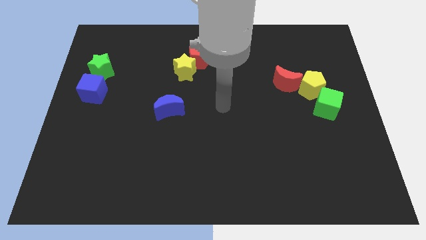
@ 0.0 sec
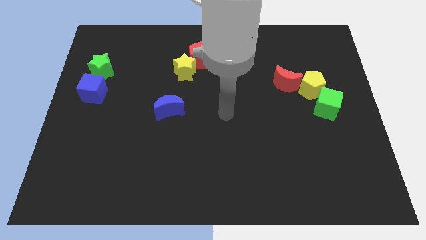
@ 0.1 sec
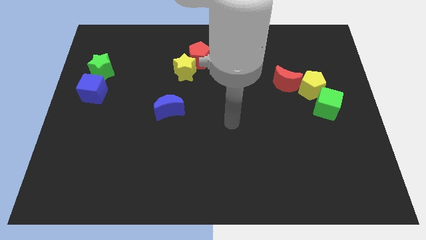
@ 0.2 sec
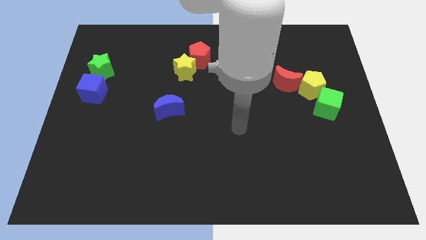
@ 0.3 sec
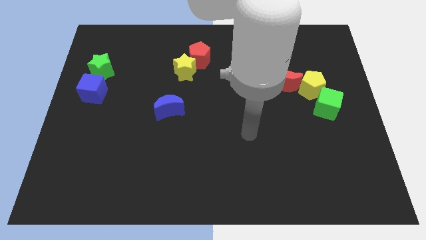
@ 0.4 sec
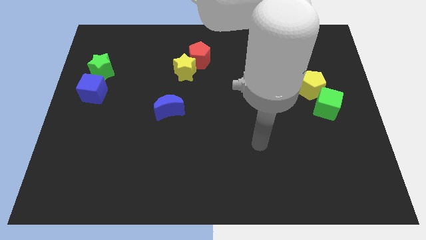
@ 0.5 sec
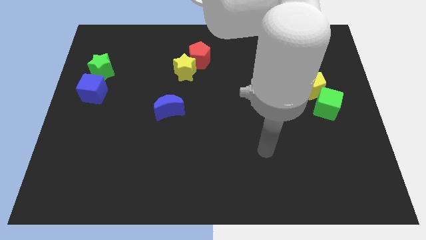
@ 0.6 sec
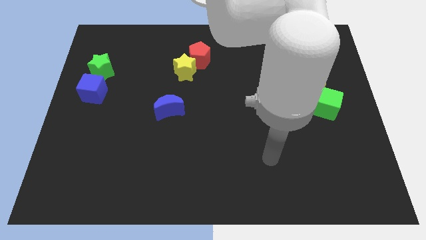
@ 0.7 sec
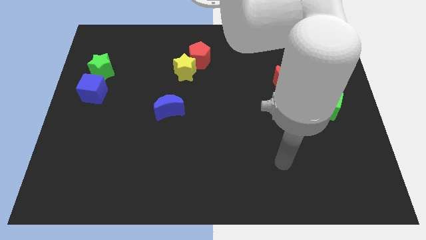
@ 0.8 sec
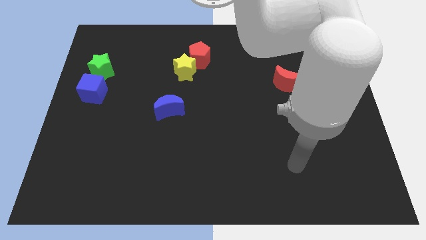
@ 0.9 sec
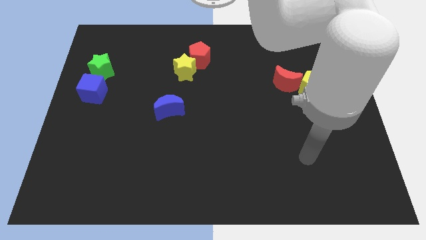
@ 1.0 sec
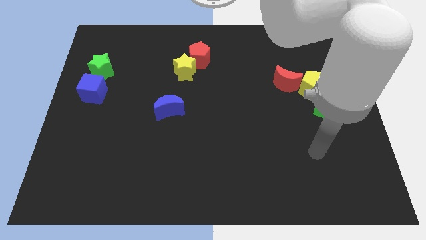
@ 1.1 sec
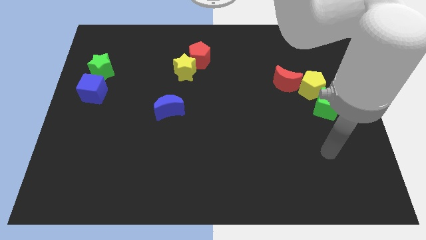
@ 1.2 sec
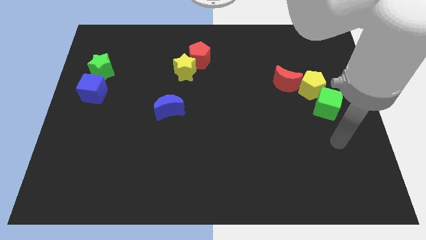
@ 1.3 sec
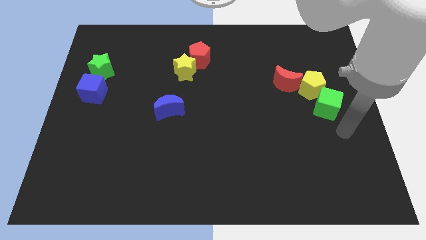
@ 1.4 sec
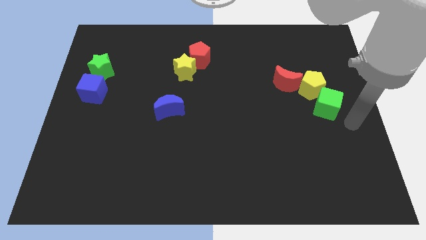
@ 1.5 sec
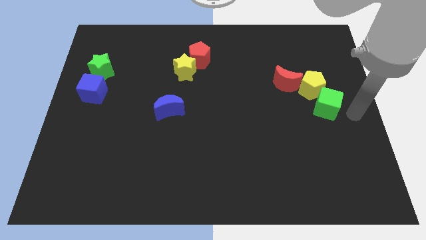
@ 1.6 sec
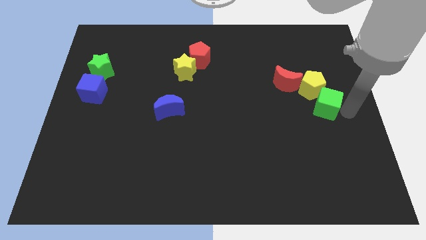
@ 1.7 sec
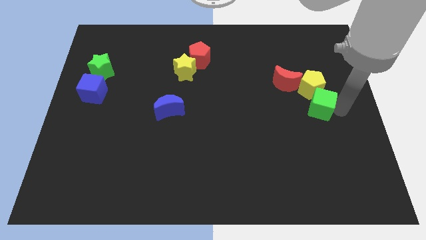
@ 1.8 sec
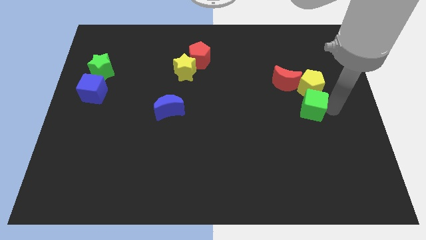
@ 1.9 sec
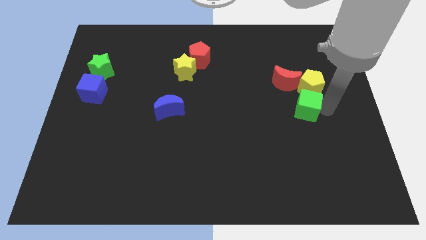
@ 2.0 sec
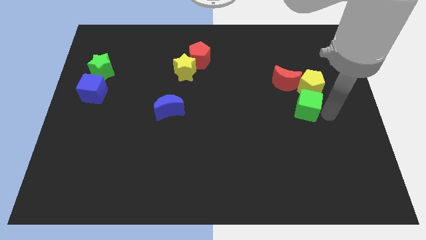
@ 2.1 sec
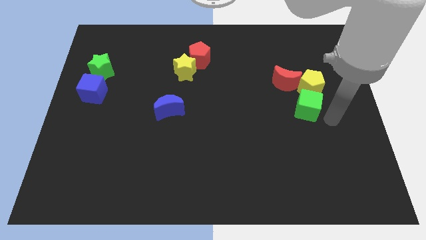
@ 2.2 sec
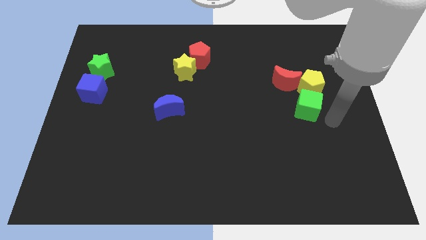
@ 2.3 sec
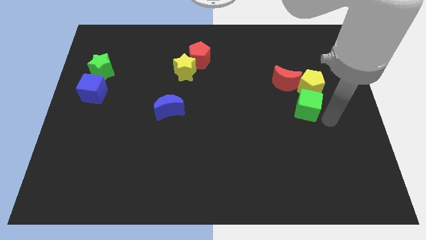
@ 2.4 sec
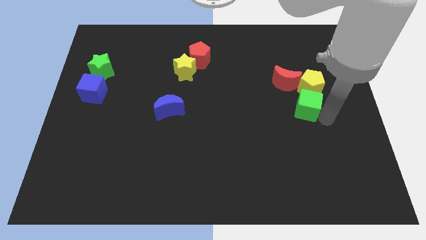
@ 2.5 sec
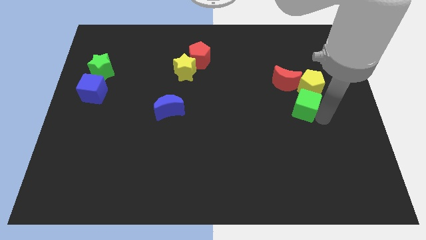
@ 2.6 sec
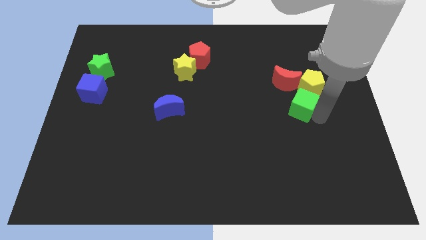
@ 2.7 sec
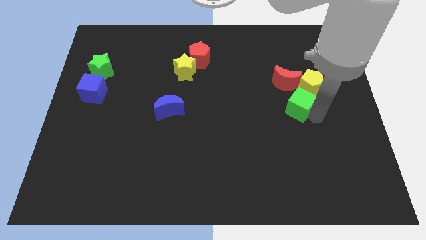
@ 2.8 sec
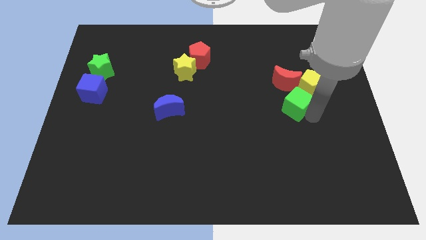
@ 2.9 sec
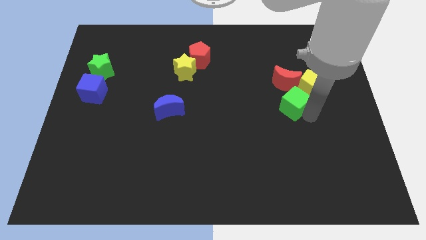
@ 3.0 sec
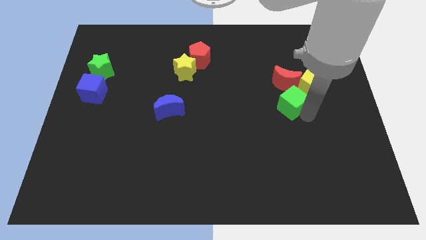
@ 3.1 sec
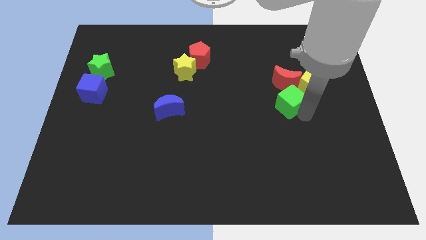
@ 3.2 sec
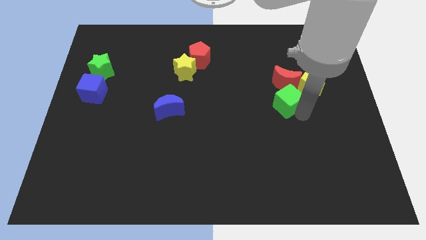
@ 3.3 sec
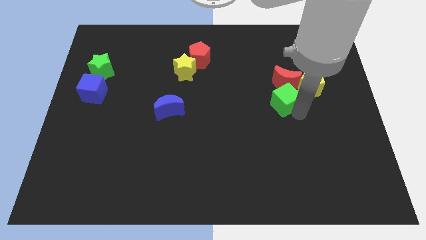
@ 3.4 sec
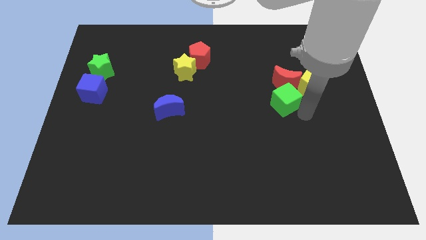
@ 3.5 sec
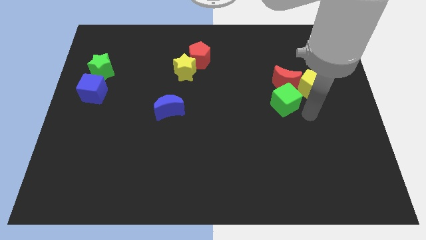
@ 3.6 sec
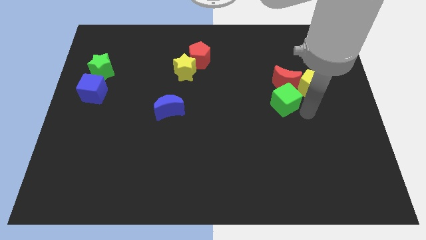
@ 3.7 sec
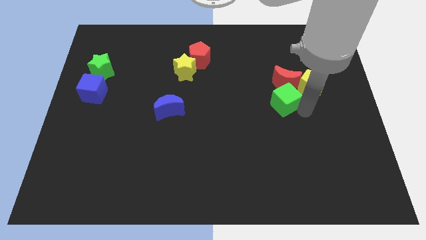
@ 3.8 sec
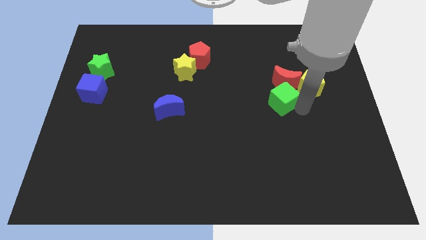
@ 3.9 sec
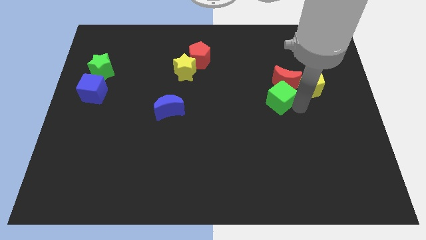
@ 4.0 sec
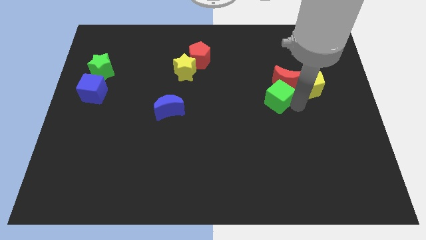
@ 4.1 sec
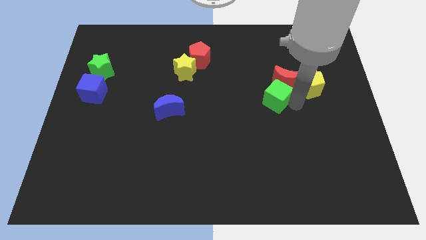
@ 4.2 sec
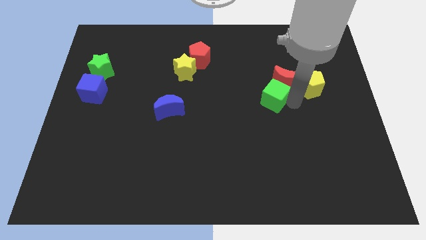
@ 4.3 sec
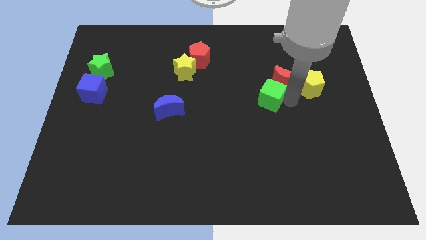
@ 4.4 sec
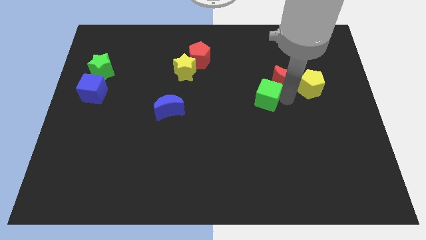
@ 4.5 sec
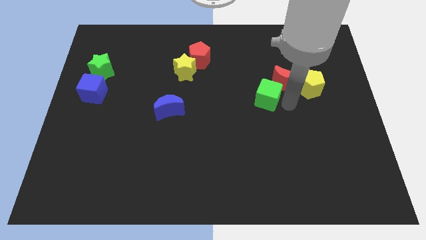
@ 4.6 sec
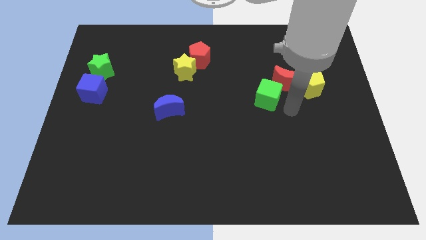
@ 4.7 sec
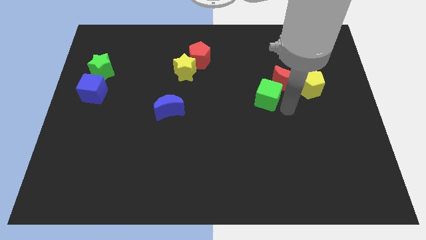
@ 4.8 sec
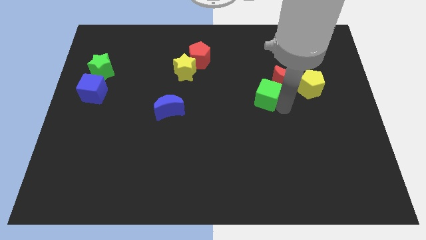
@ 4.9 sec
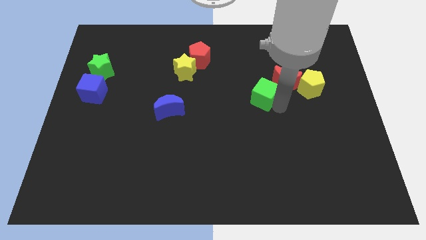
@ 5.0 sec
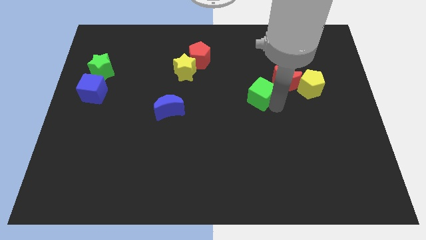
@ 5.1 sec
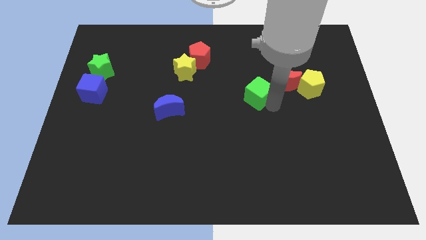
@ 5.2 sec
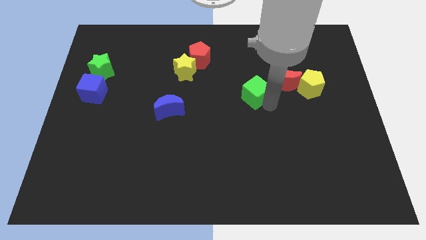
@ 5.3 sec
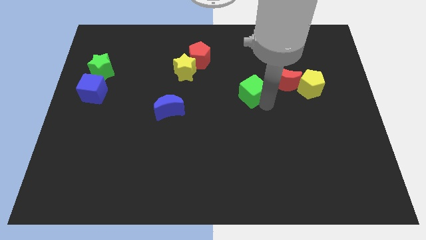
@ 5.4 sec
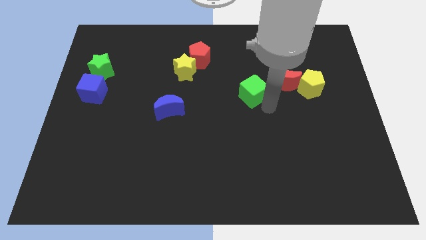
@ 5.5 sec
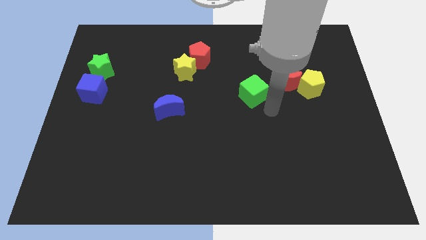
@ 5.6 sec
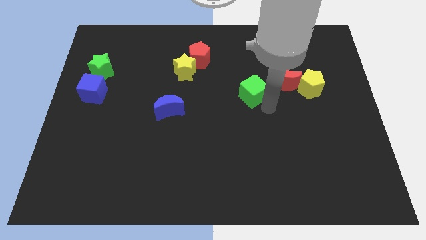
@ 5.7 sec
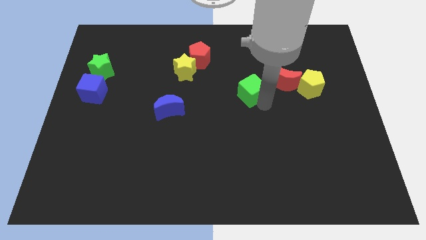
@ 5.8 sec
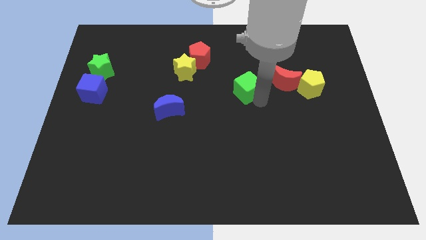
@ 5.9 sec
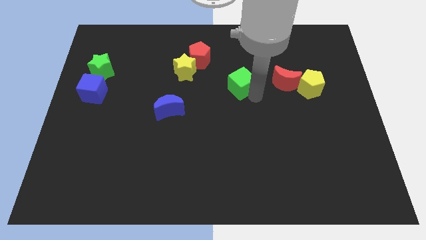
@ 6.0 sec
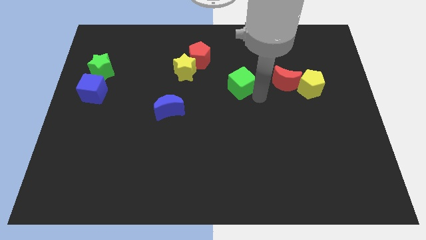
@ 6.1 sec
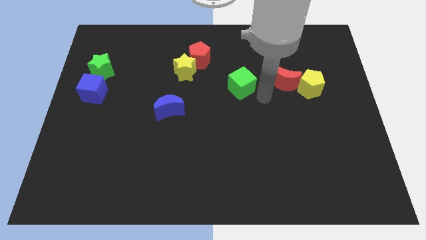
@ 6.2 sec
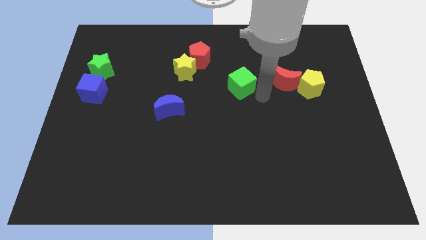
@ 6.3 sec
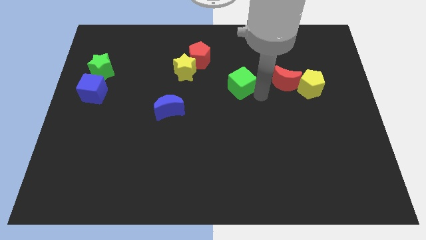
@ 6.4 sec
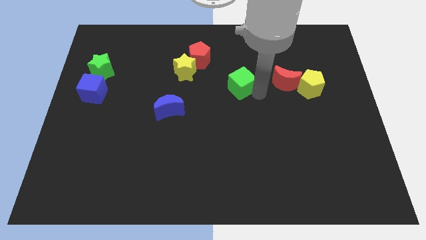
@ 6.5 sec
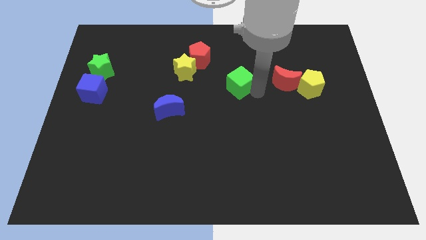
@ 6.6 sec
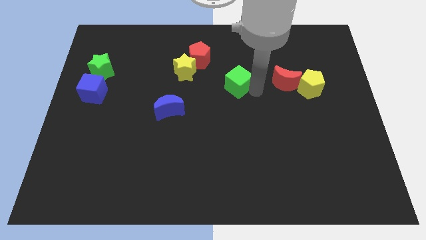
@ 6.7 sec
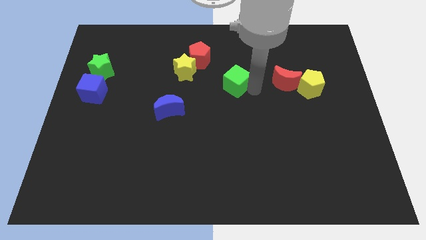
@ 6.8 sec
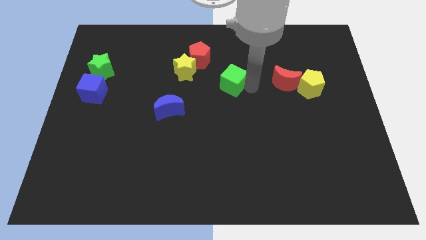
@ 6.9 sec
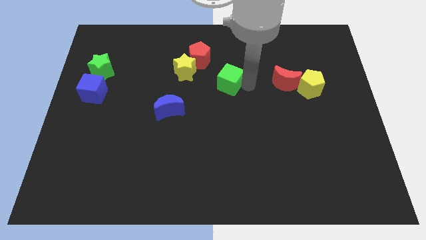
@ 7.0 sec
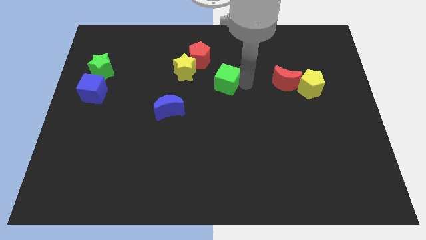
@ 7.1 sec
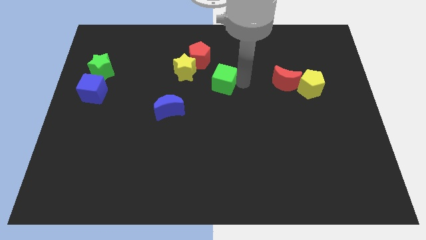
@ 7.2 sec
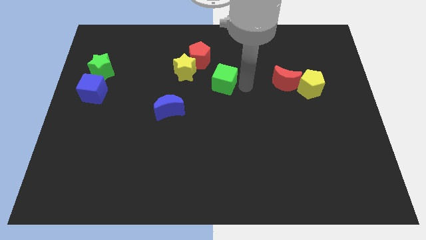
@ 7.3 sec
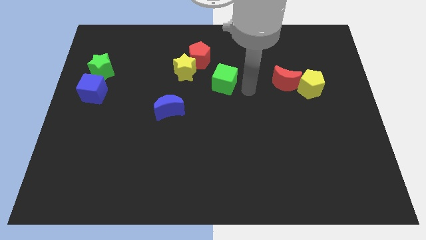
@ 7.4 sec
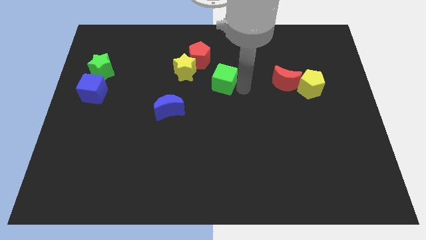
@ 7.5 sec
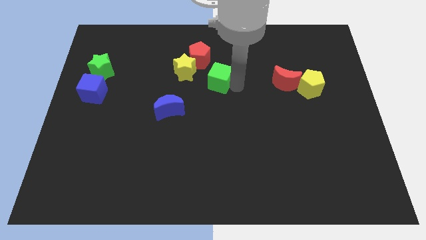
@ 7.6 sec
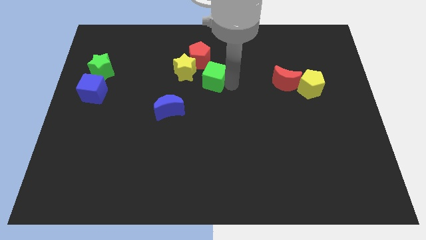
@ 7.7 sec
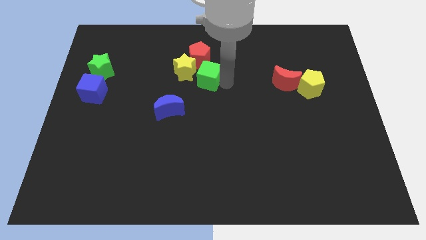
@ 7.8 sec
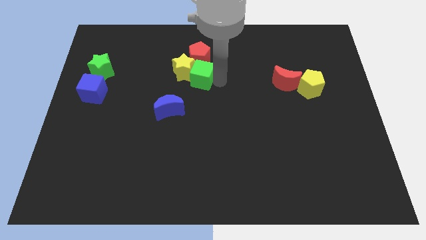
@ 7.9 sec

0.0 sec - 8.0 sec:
push the green cube close to the yellow star
